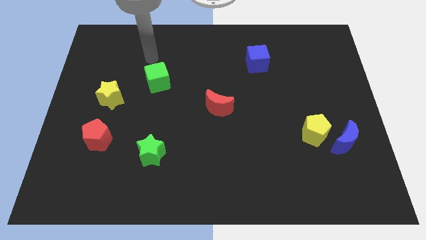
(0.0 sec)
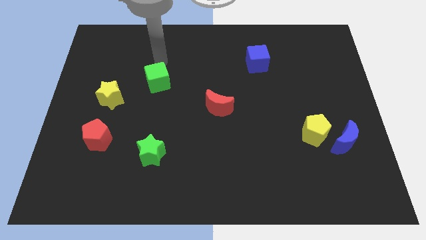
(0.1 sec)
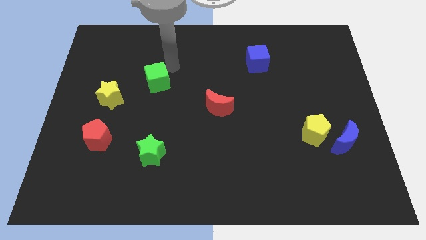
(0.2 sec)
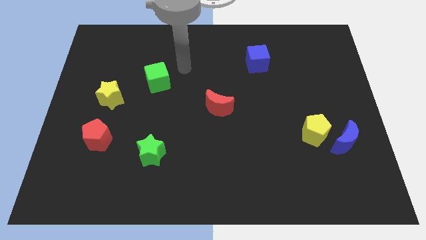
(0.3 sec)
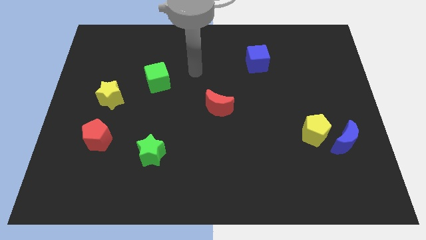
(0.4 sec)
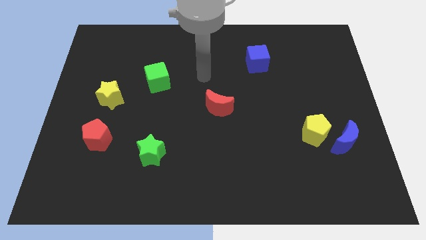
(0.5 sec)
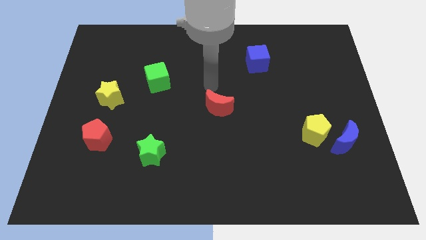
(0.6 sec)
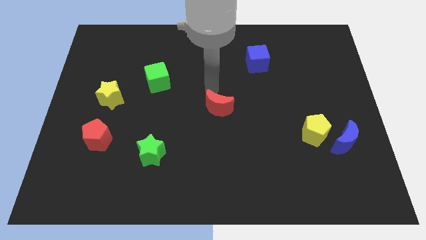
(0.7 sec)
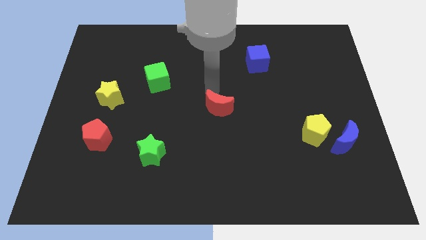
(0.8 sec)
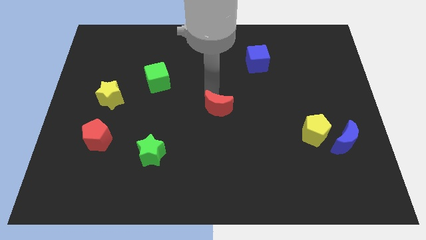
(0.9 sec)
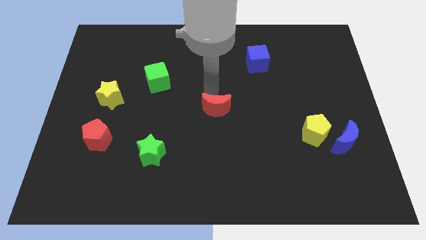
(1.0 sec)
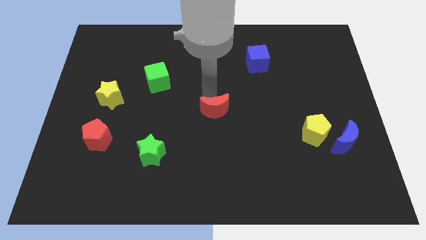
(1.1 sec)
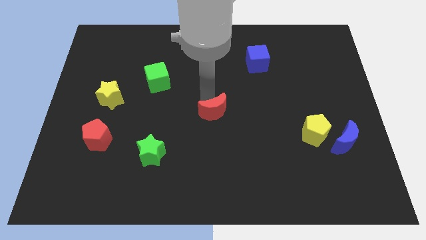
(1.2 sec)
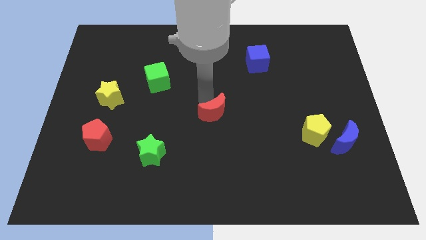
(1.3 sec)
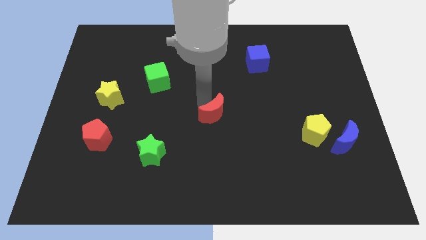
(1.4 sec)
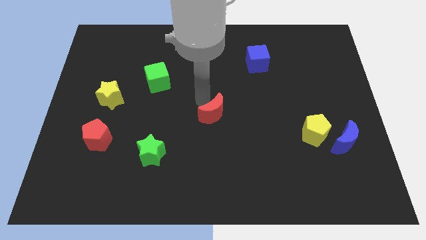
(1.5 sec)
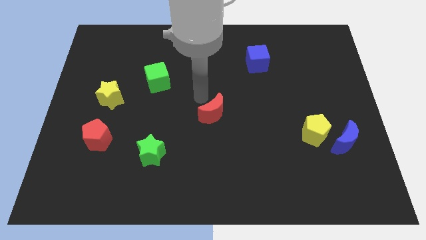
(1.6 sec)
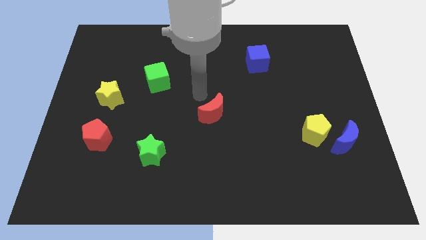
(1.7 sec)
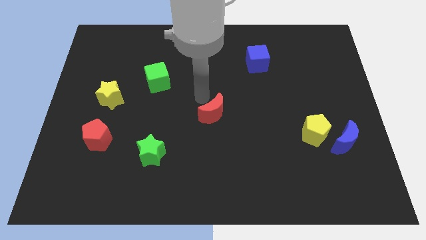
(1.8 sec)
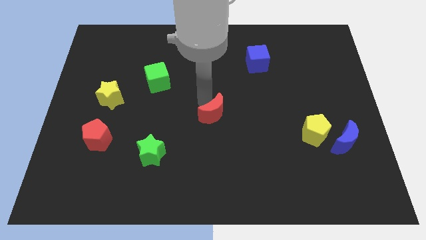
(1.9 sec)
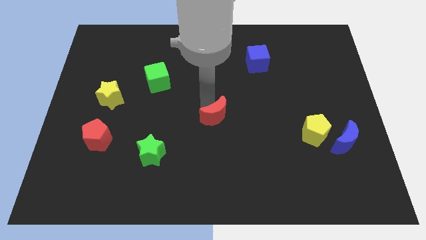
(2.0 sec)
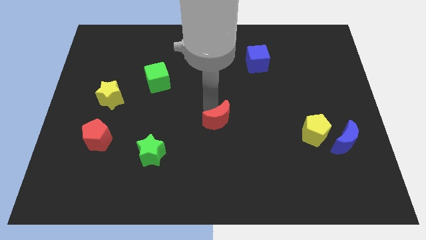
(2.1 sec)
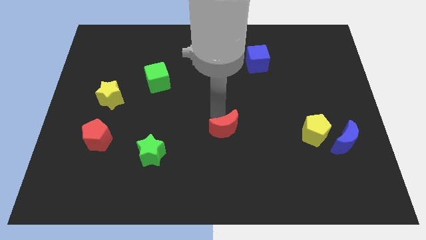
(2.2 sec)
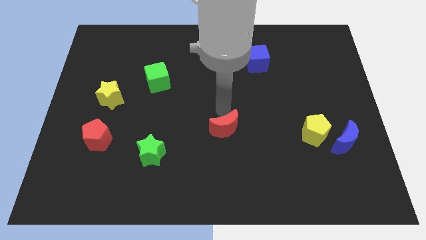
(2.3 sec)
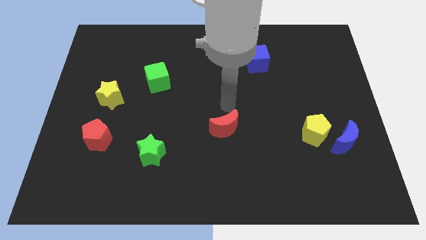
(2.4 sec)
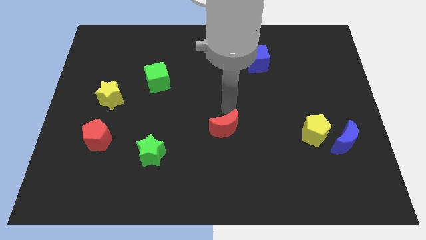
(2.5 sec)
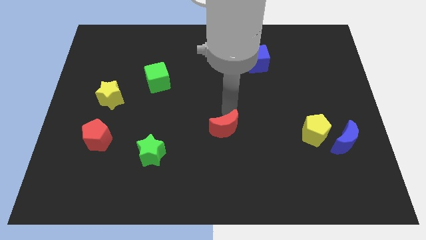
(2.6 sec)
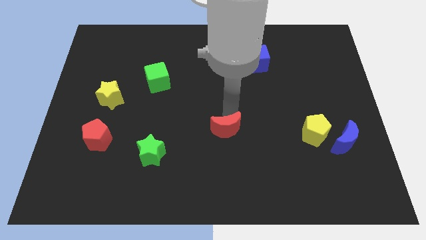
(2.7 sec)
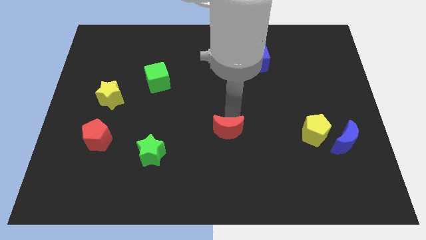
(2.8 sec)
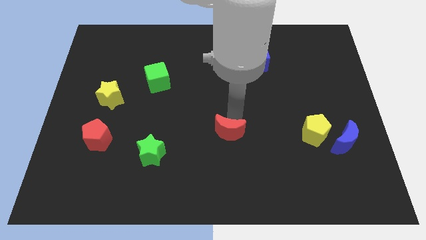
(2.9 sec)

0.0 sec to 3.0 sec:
slide the red moon down somewhat

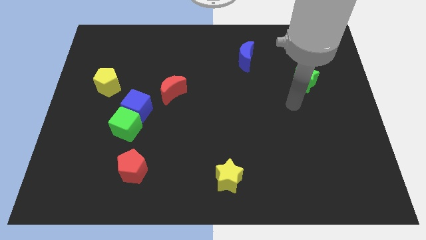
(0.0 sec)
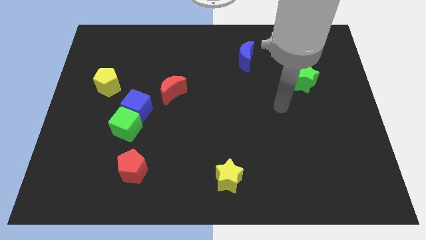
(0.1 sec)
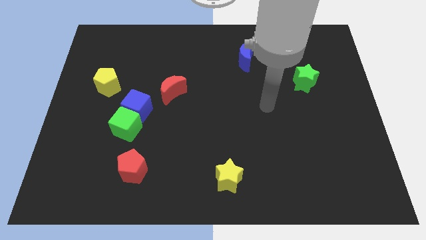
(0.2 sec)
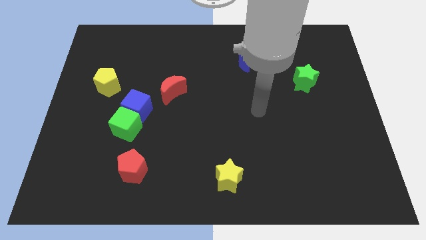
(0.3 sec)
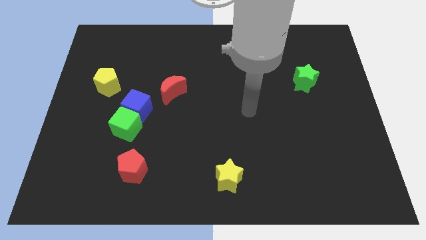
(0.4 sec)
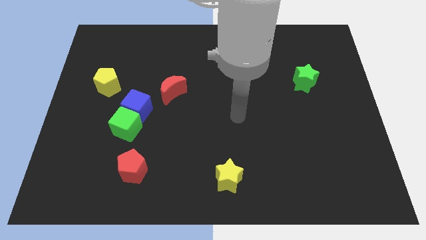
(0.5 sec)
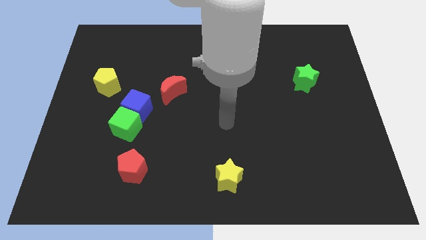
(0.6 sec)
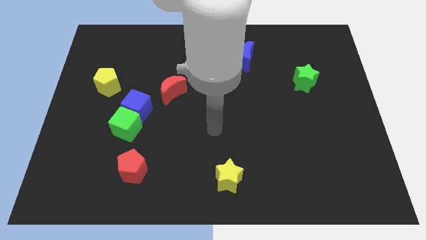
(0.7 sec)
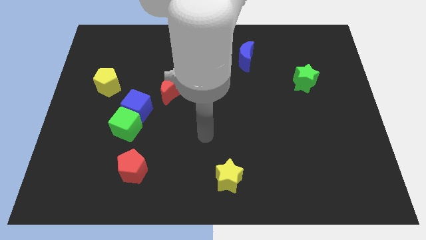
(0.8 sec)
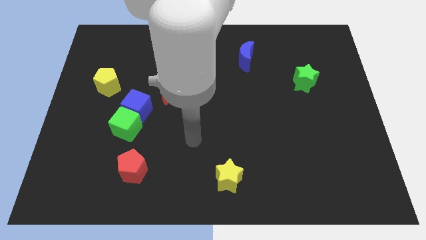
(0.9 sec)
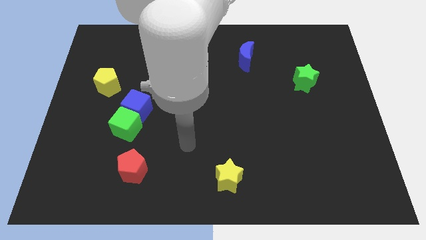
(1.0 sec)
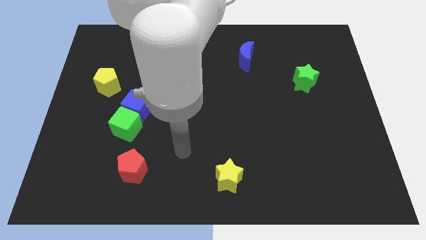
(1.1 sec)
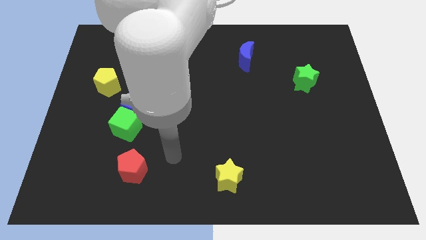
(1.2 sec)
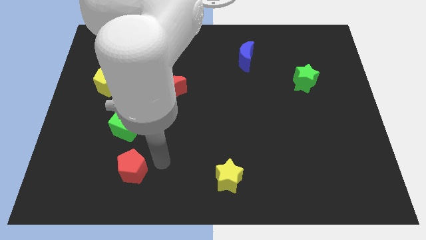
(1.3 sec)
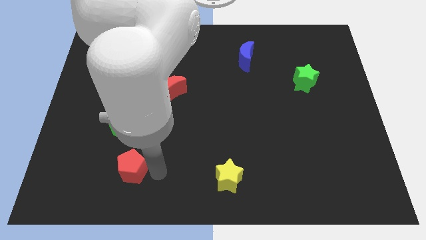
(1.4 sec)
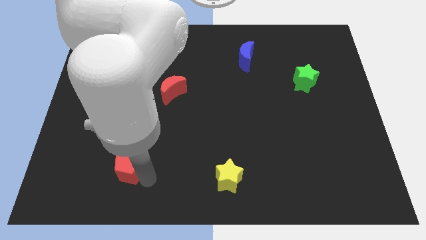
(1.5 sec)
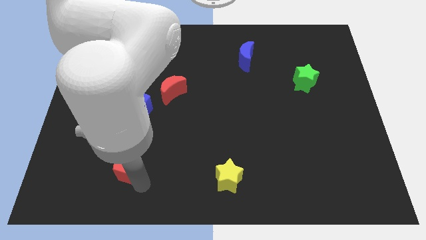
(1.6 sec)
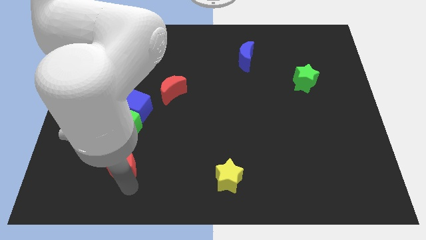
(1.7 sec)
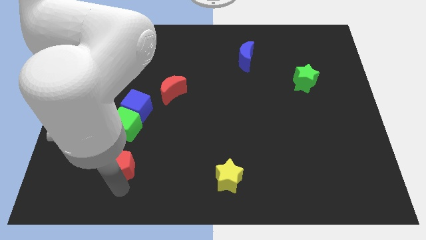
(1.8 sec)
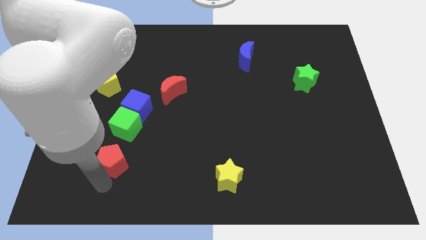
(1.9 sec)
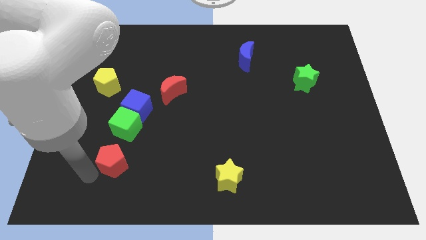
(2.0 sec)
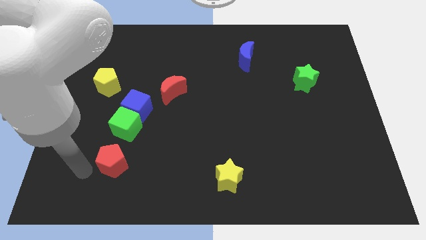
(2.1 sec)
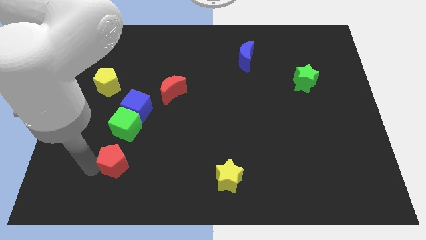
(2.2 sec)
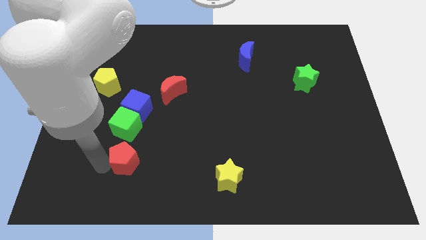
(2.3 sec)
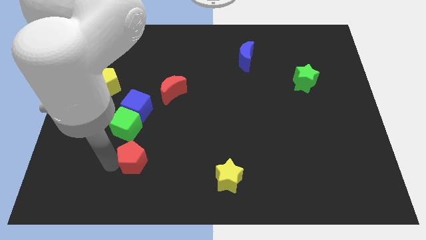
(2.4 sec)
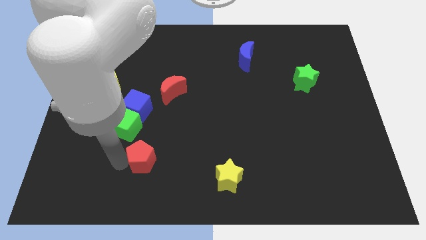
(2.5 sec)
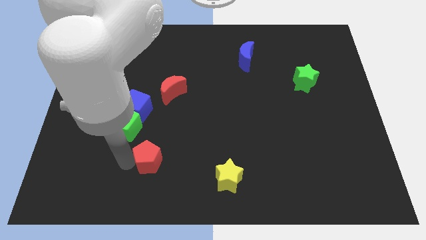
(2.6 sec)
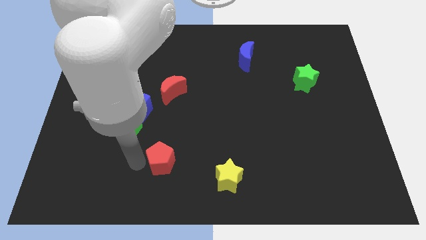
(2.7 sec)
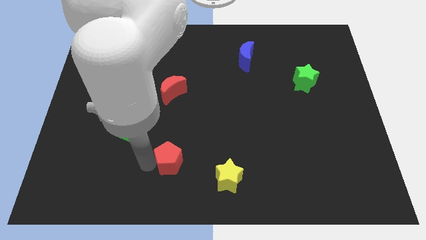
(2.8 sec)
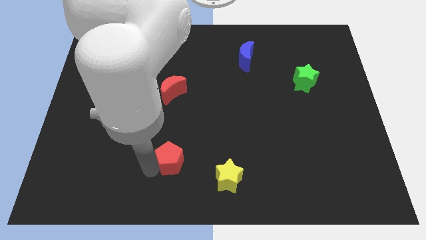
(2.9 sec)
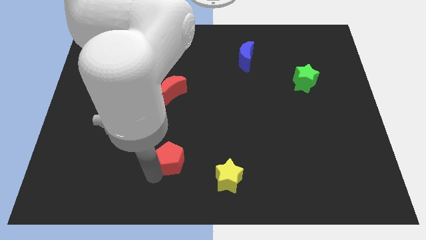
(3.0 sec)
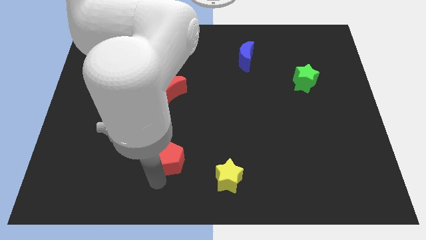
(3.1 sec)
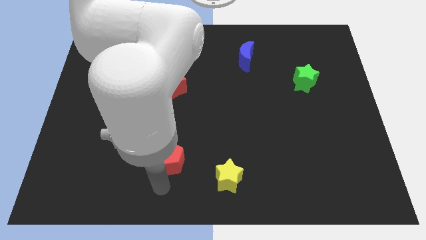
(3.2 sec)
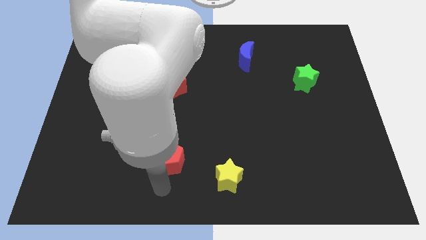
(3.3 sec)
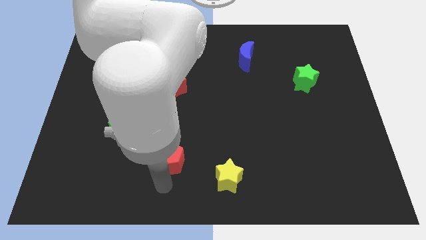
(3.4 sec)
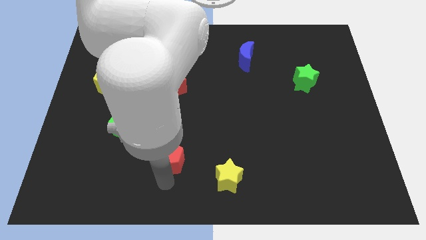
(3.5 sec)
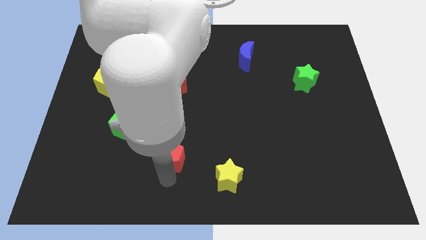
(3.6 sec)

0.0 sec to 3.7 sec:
slide the red pentagon upwards and right diagonally a little

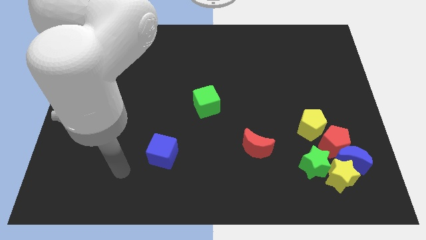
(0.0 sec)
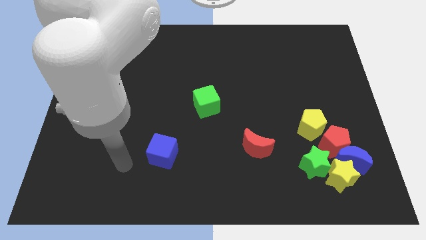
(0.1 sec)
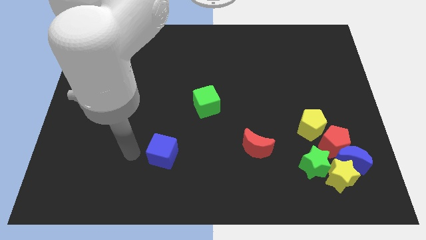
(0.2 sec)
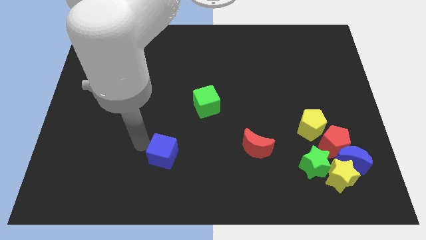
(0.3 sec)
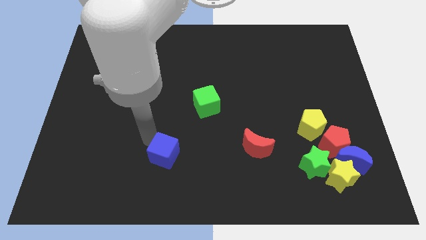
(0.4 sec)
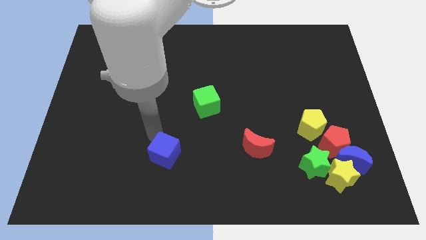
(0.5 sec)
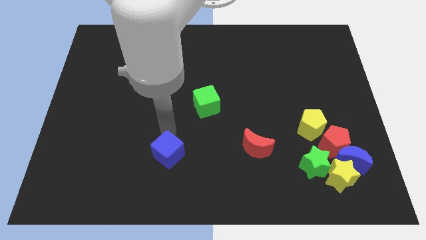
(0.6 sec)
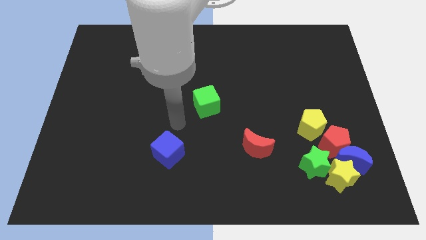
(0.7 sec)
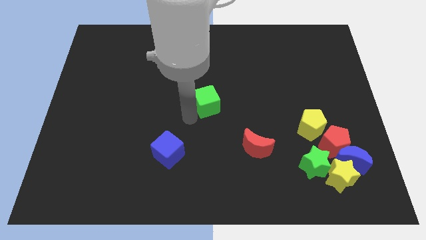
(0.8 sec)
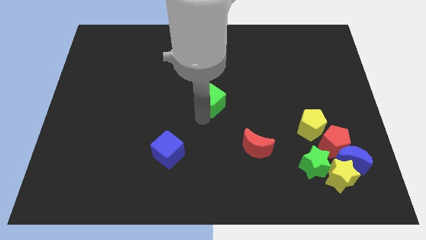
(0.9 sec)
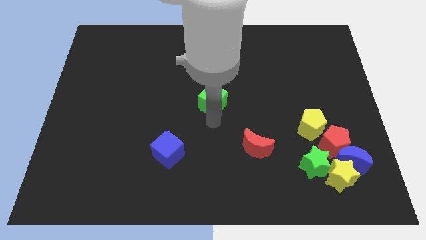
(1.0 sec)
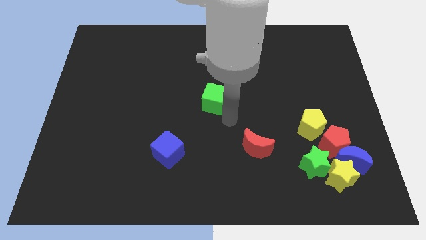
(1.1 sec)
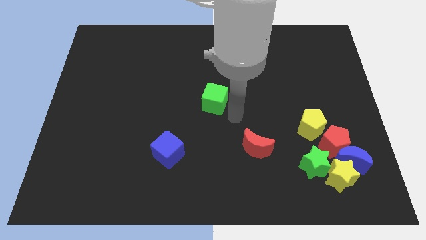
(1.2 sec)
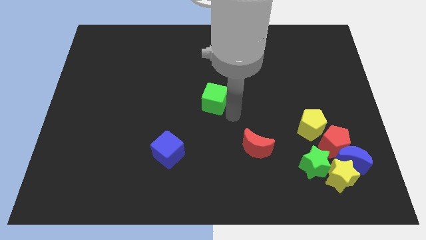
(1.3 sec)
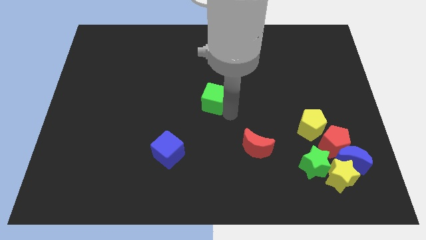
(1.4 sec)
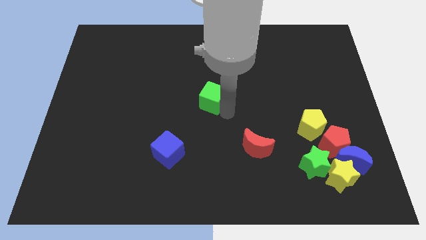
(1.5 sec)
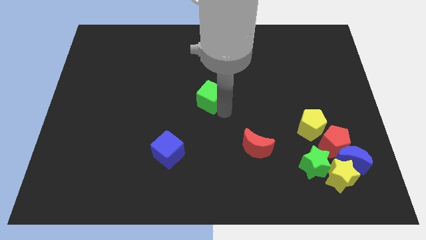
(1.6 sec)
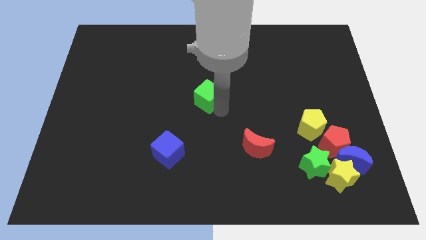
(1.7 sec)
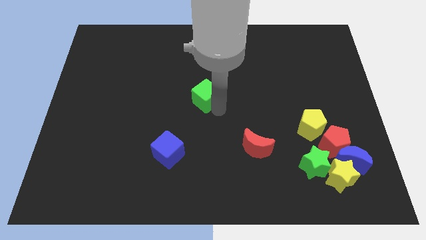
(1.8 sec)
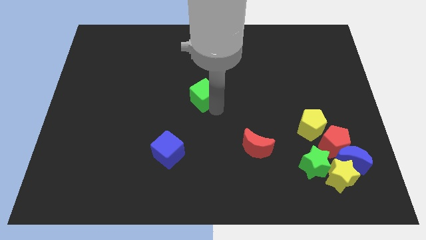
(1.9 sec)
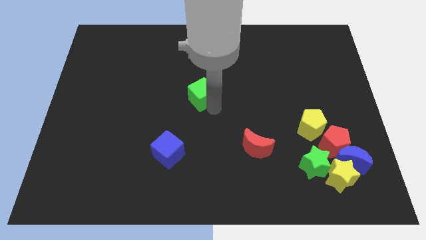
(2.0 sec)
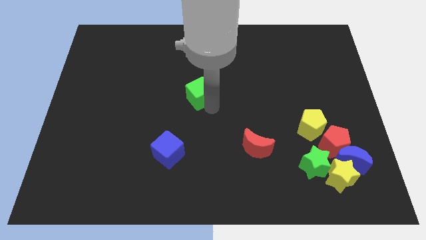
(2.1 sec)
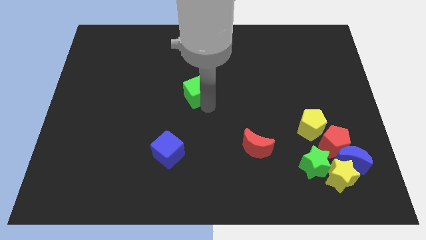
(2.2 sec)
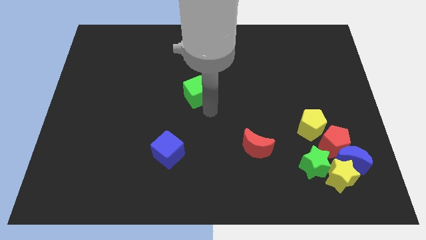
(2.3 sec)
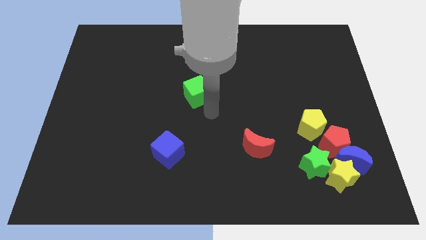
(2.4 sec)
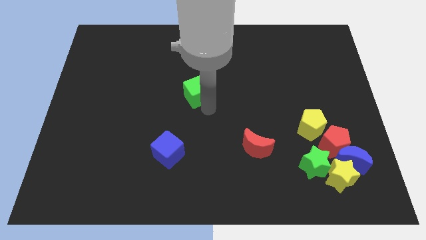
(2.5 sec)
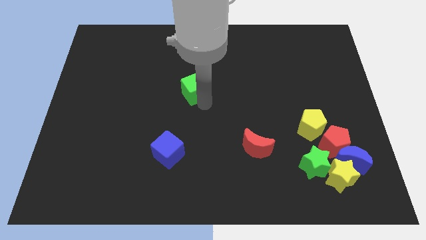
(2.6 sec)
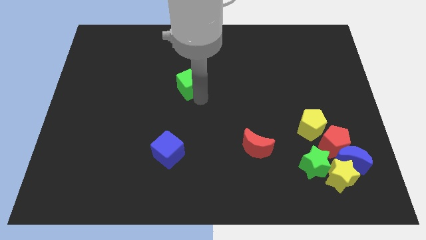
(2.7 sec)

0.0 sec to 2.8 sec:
slightly push the green cube diagonally upwards and to the left
